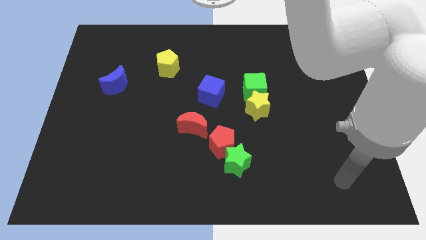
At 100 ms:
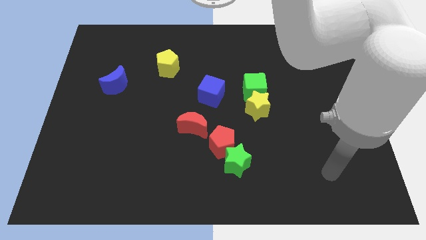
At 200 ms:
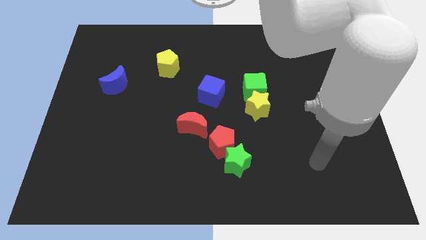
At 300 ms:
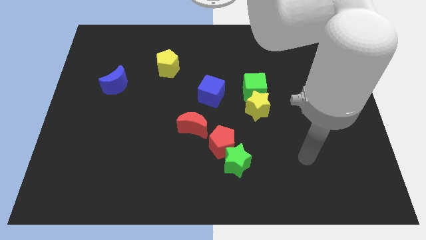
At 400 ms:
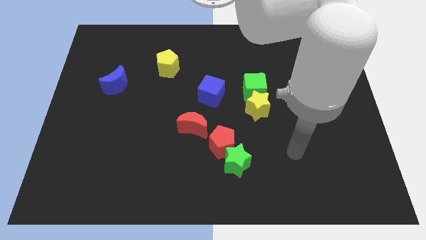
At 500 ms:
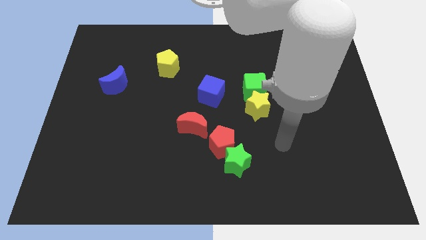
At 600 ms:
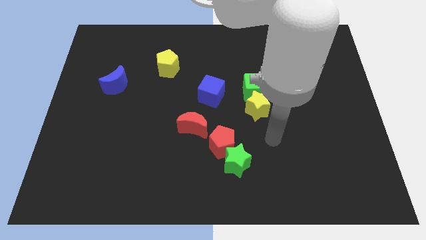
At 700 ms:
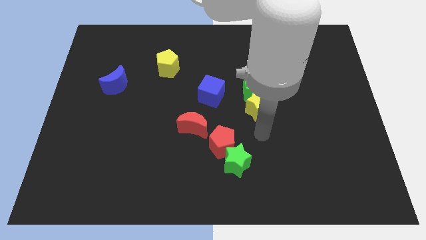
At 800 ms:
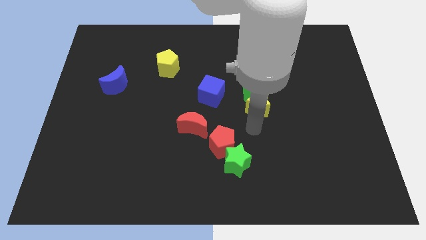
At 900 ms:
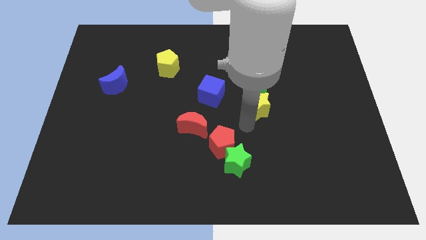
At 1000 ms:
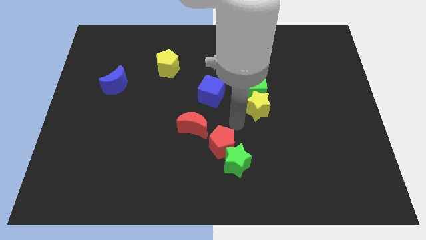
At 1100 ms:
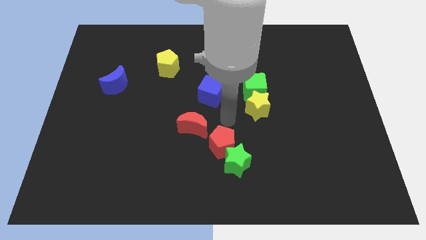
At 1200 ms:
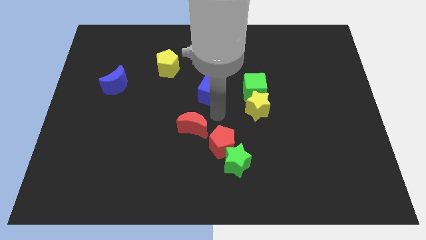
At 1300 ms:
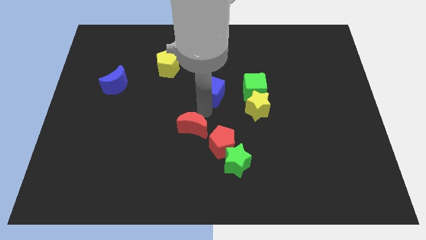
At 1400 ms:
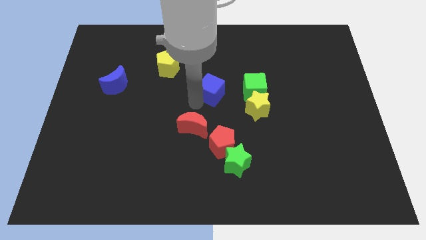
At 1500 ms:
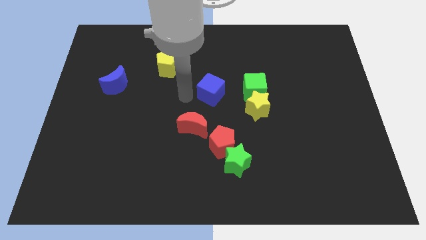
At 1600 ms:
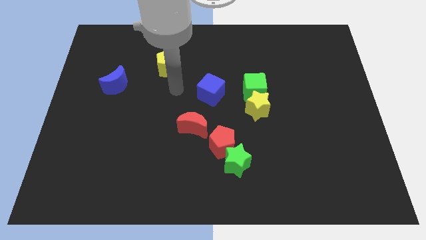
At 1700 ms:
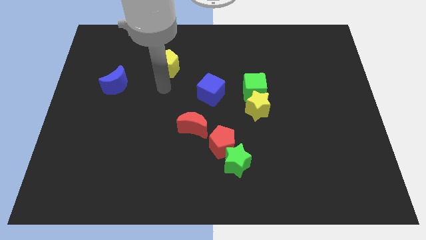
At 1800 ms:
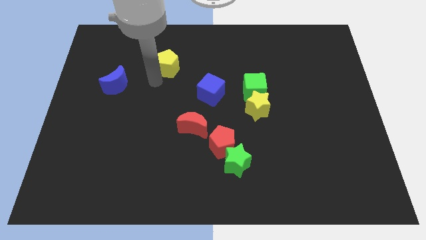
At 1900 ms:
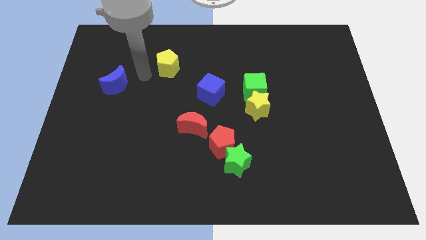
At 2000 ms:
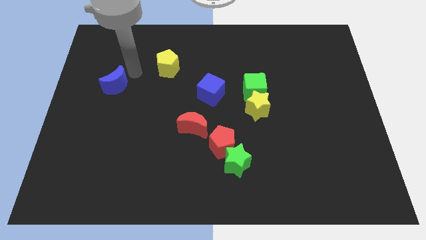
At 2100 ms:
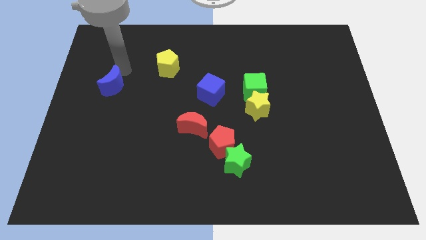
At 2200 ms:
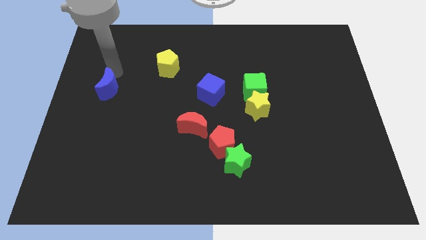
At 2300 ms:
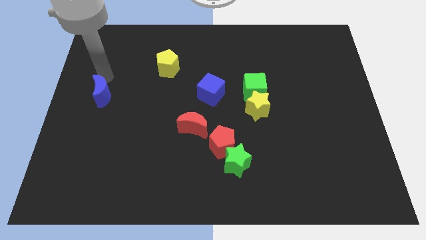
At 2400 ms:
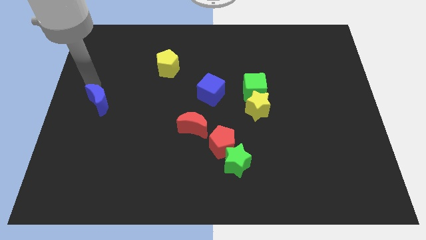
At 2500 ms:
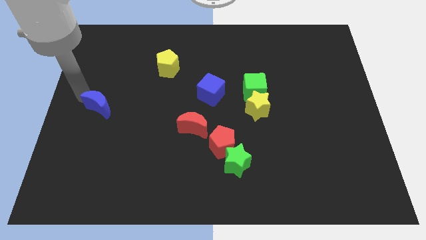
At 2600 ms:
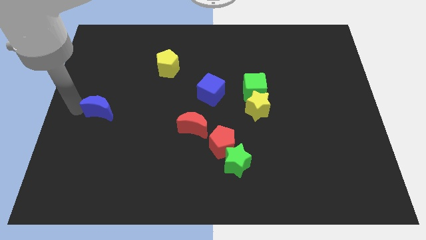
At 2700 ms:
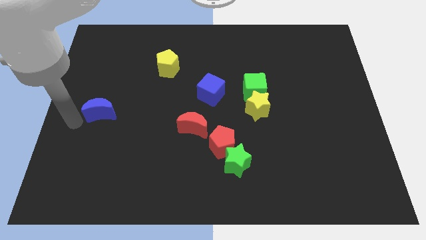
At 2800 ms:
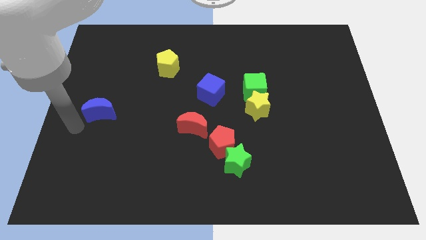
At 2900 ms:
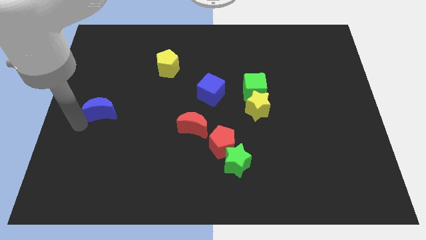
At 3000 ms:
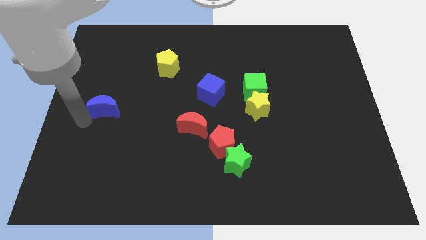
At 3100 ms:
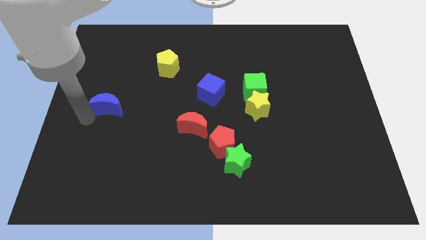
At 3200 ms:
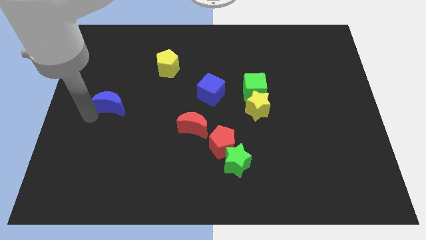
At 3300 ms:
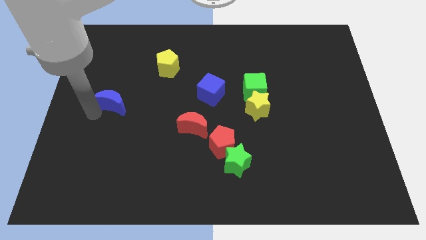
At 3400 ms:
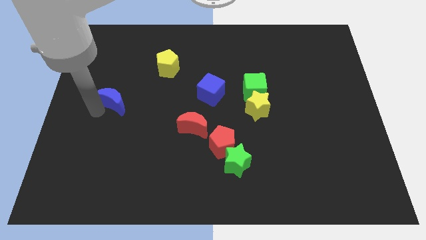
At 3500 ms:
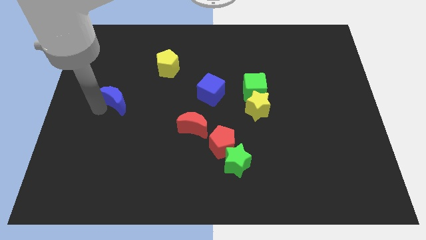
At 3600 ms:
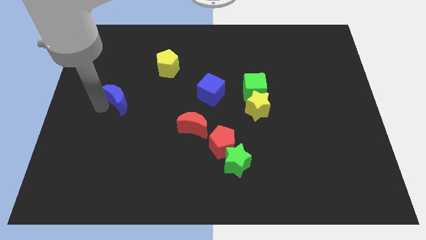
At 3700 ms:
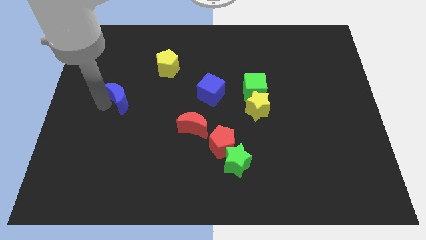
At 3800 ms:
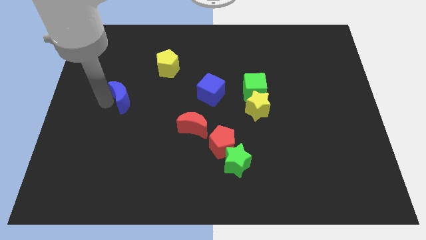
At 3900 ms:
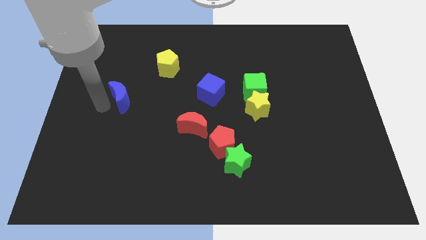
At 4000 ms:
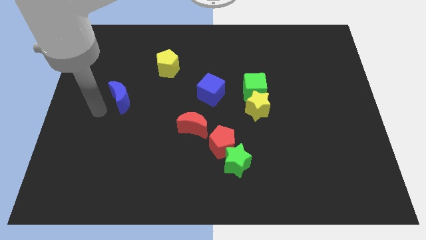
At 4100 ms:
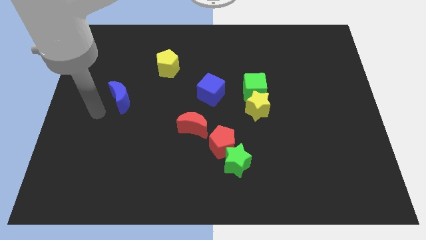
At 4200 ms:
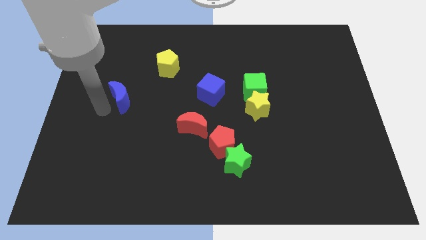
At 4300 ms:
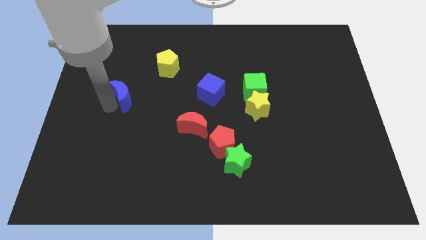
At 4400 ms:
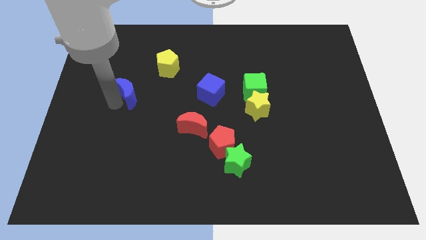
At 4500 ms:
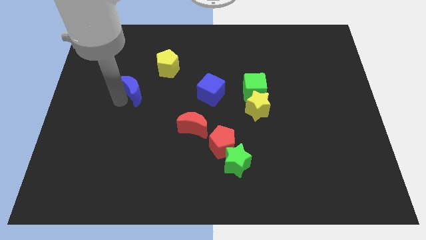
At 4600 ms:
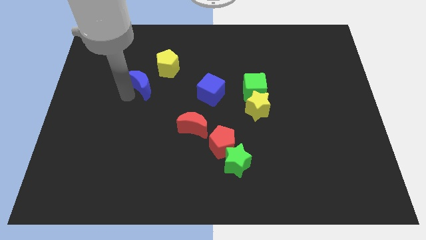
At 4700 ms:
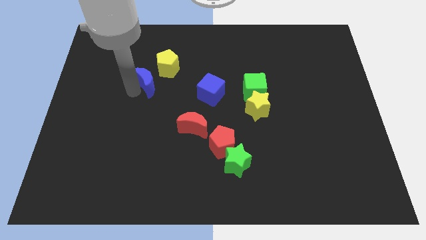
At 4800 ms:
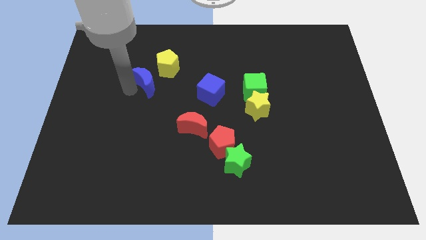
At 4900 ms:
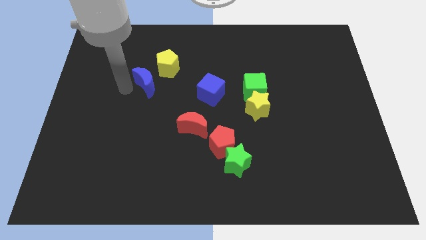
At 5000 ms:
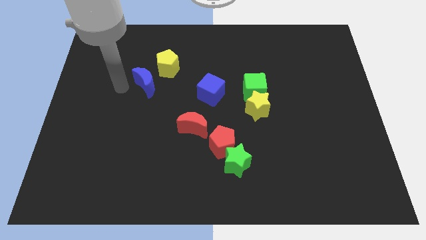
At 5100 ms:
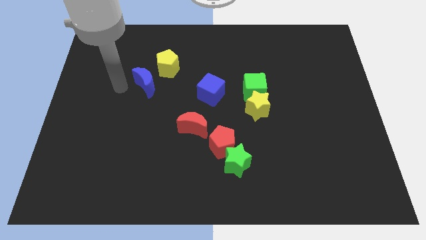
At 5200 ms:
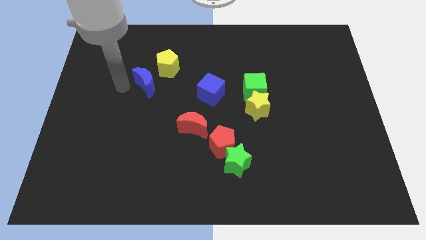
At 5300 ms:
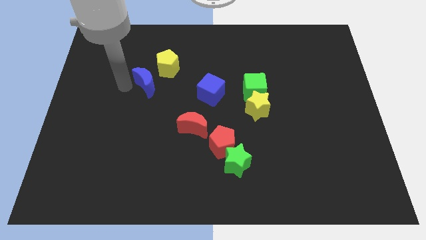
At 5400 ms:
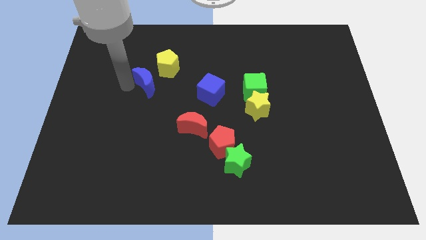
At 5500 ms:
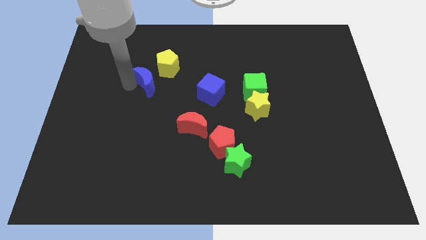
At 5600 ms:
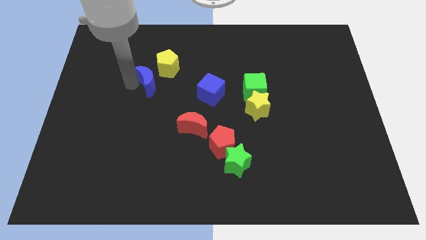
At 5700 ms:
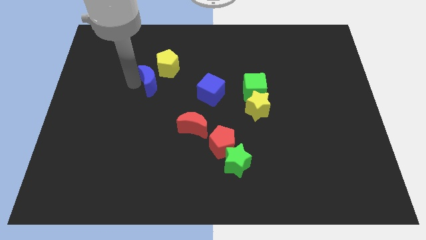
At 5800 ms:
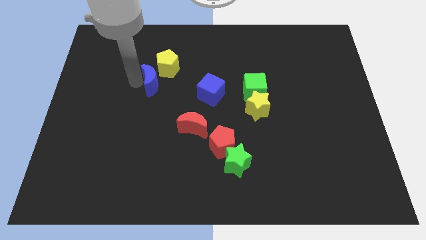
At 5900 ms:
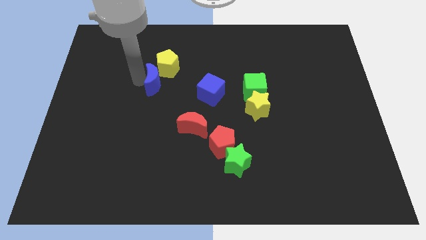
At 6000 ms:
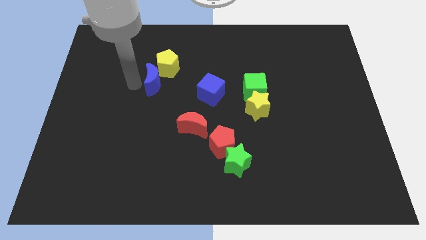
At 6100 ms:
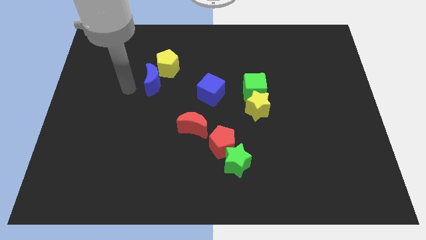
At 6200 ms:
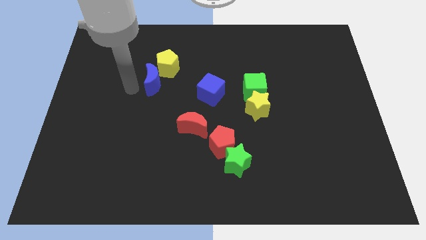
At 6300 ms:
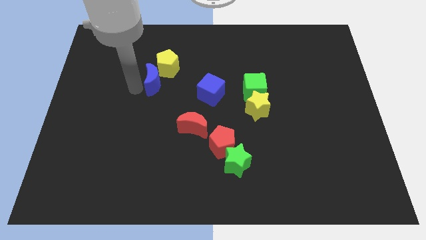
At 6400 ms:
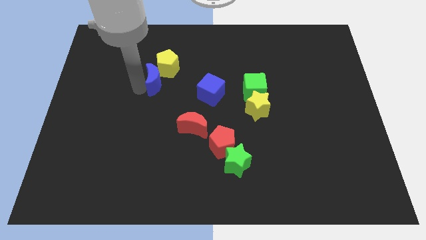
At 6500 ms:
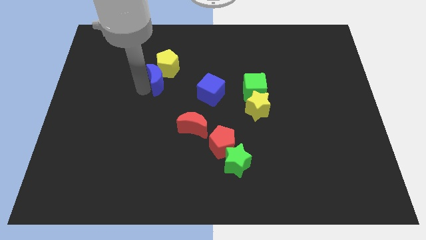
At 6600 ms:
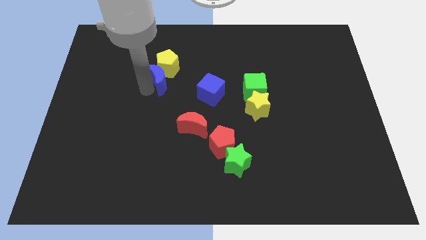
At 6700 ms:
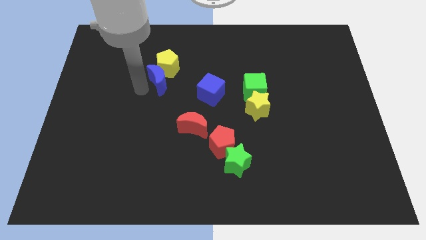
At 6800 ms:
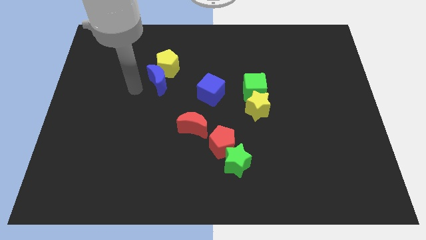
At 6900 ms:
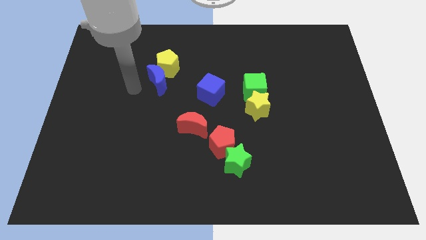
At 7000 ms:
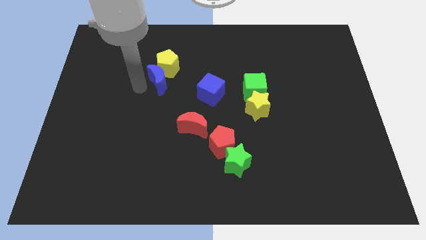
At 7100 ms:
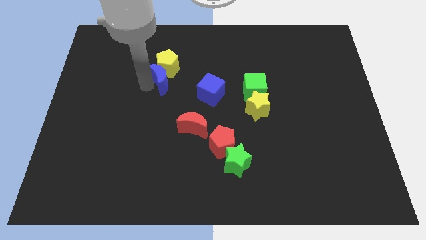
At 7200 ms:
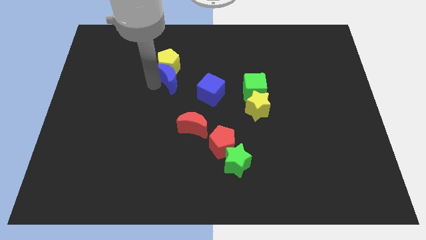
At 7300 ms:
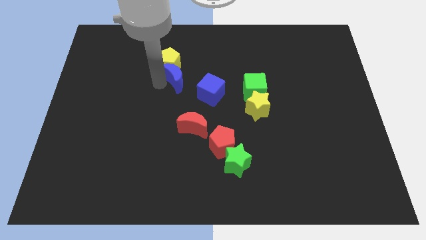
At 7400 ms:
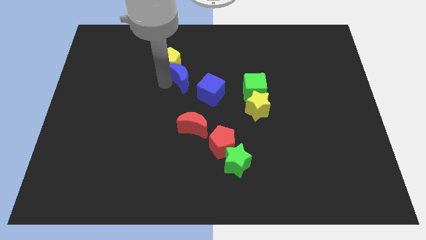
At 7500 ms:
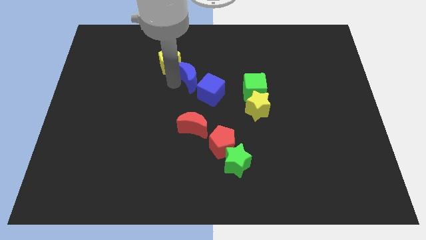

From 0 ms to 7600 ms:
slide the blue moon right of the yellow pentagon

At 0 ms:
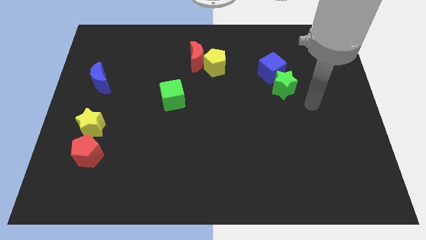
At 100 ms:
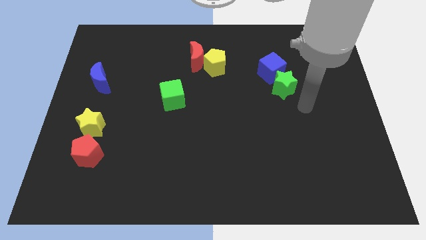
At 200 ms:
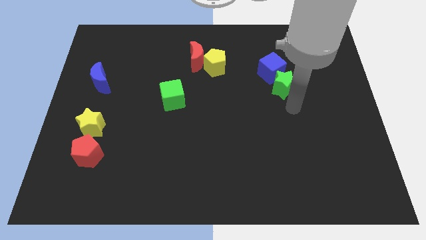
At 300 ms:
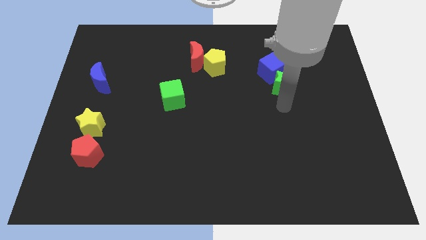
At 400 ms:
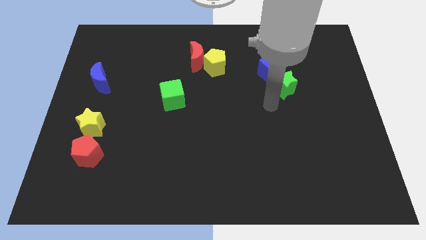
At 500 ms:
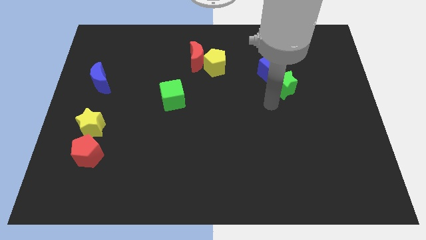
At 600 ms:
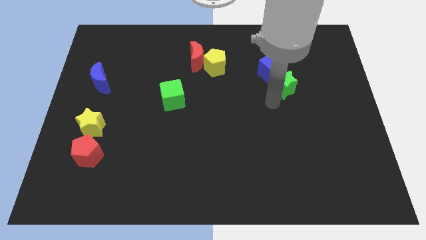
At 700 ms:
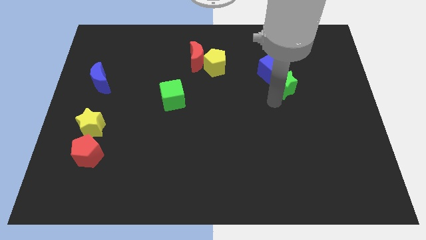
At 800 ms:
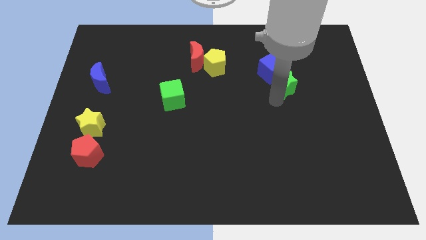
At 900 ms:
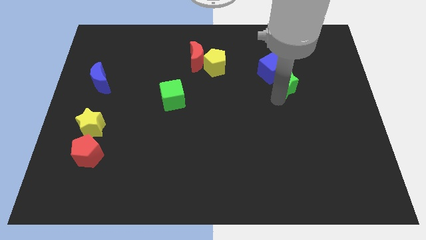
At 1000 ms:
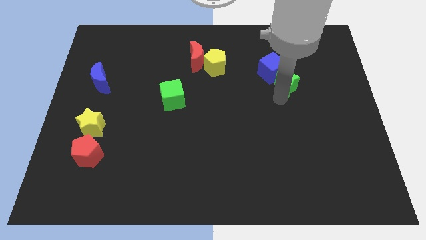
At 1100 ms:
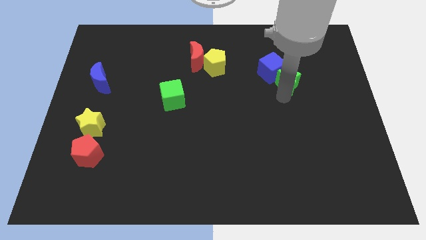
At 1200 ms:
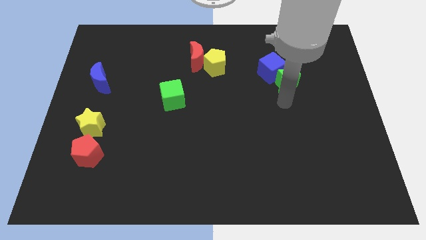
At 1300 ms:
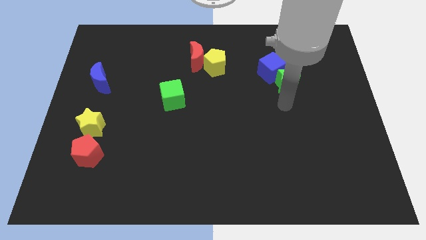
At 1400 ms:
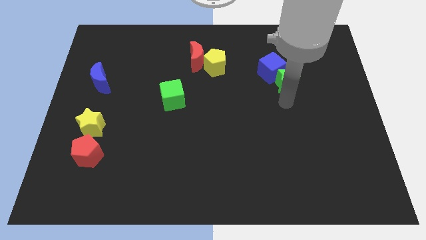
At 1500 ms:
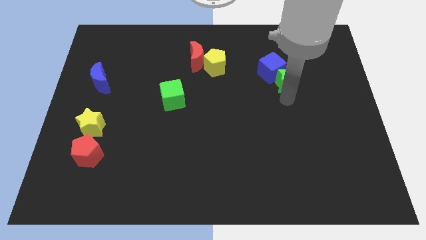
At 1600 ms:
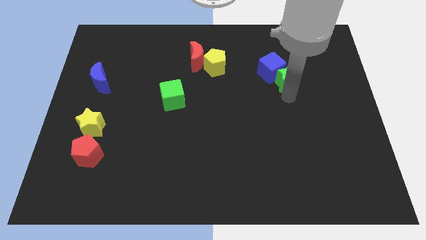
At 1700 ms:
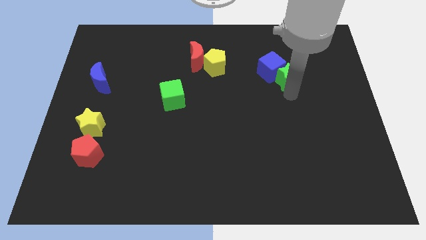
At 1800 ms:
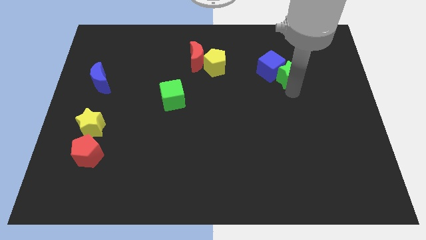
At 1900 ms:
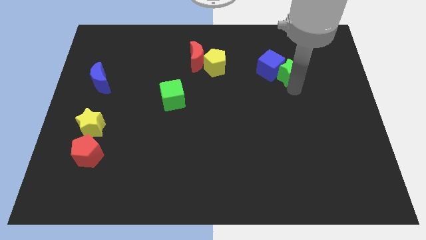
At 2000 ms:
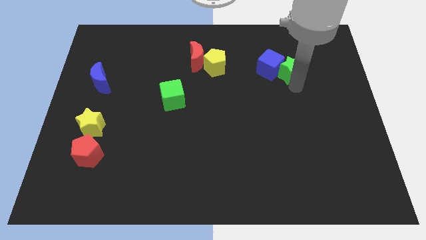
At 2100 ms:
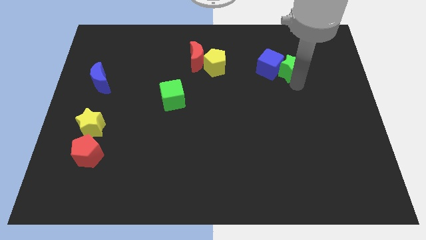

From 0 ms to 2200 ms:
push the green star to the top right side of the blue cube
